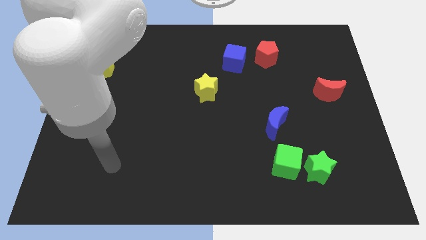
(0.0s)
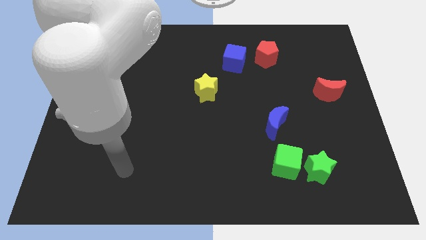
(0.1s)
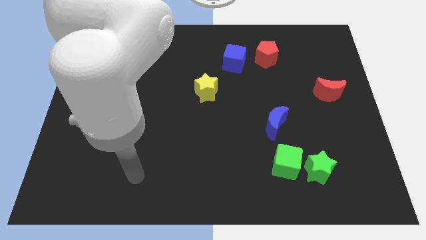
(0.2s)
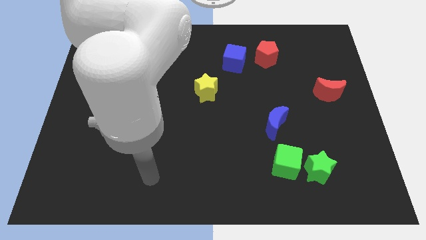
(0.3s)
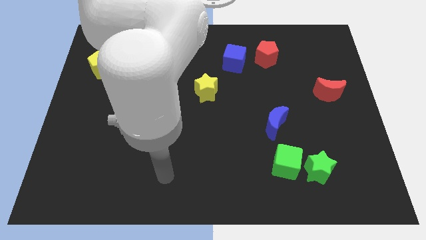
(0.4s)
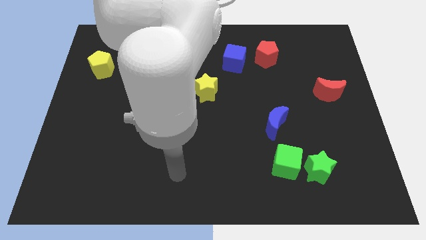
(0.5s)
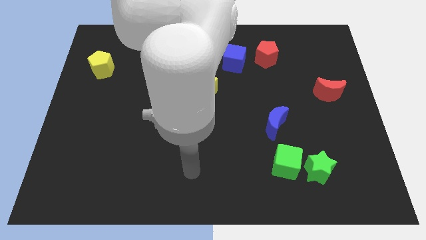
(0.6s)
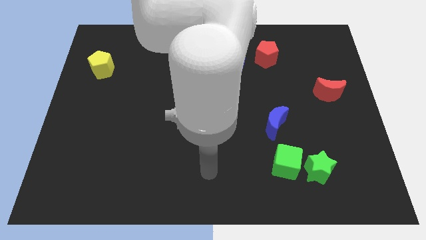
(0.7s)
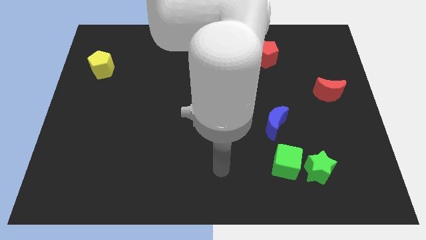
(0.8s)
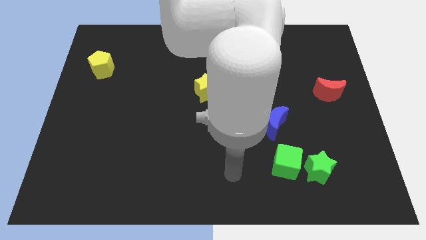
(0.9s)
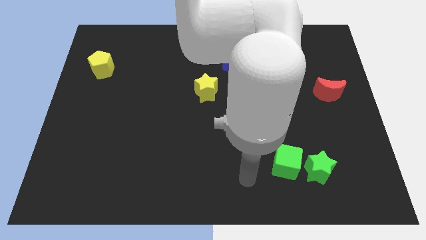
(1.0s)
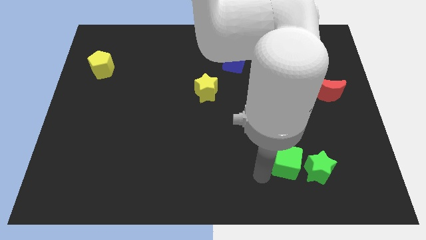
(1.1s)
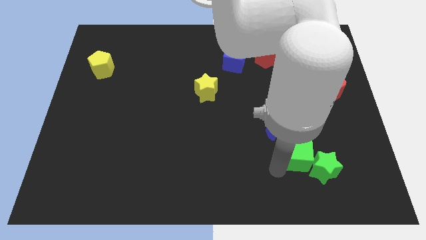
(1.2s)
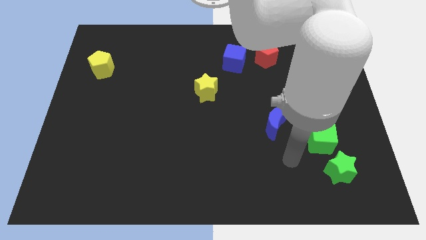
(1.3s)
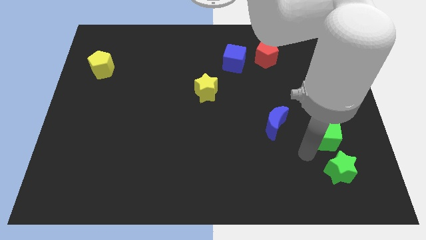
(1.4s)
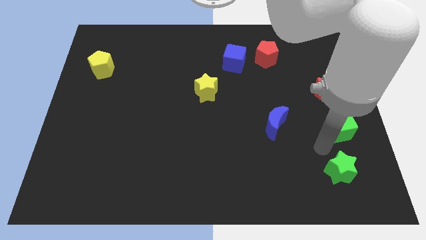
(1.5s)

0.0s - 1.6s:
separate the green star from the green cube

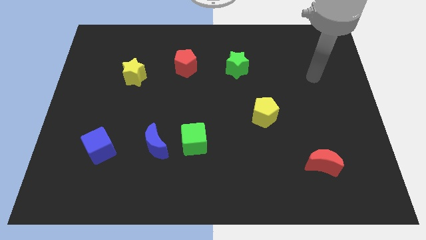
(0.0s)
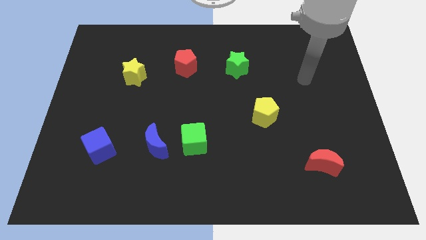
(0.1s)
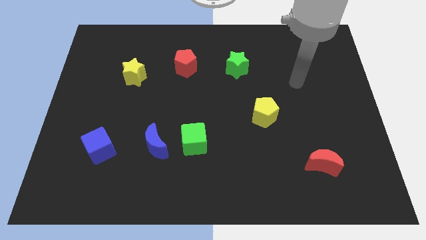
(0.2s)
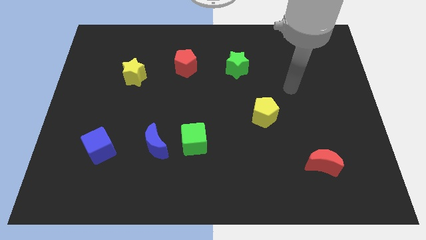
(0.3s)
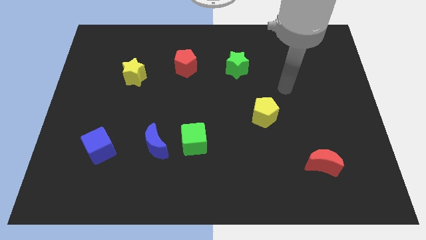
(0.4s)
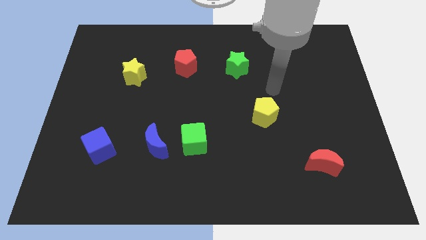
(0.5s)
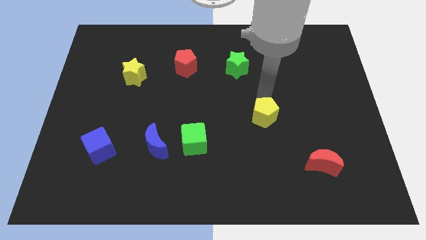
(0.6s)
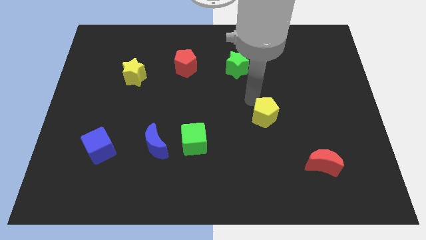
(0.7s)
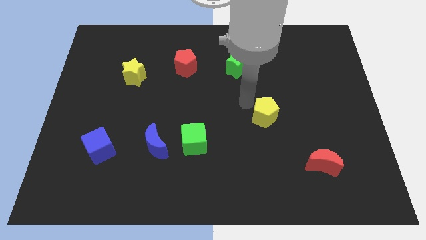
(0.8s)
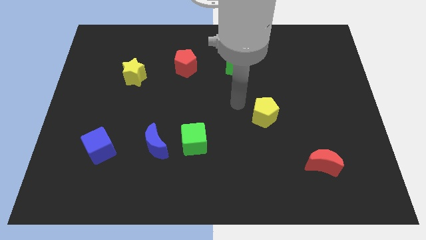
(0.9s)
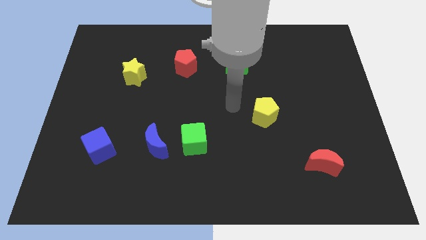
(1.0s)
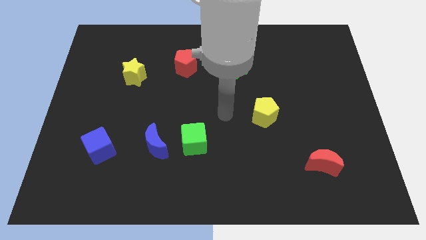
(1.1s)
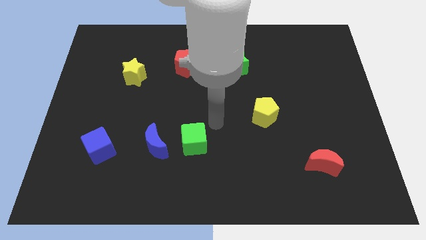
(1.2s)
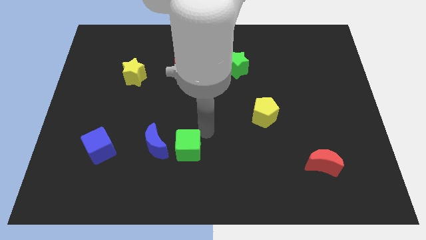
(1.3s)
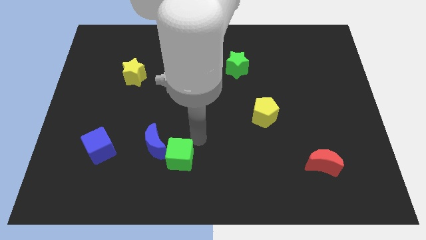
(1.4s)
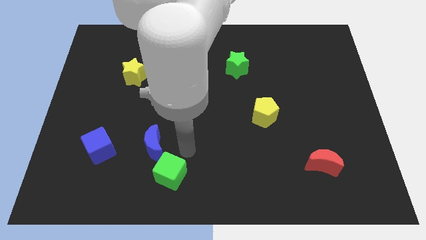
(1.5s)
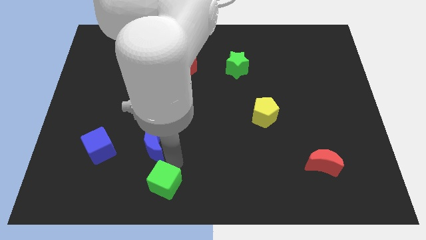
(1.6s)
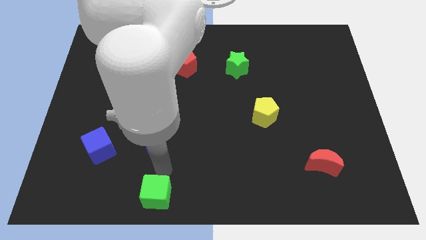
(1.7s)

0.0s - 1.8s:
pull the blue moon apart from the green cube

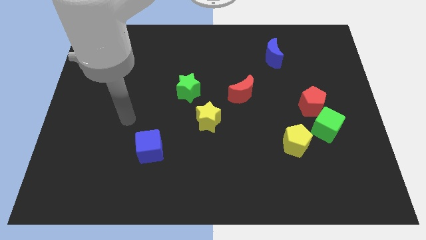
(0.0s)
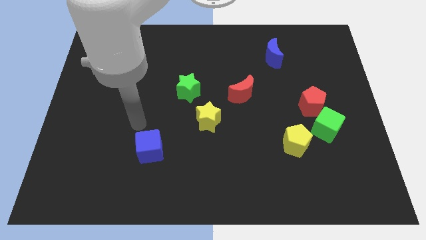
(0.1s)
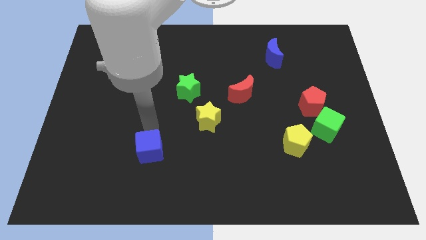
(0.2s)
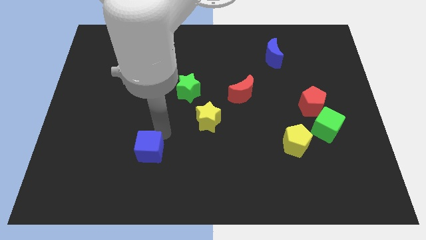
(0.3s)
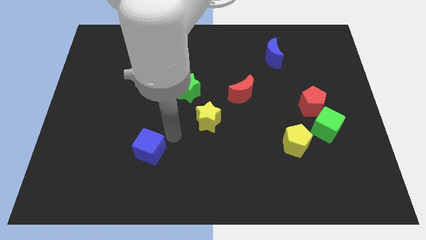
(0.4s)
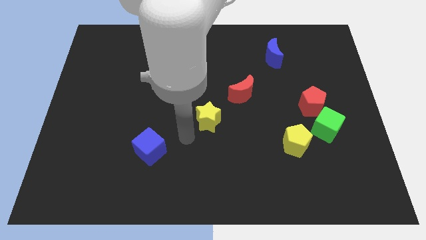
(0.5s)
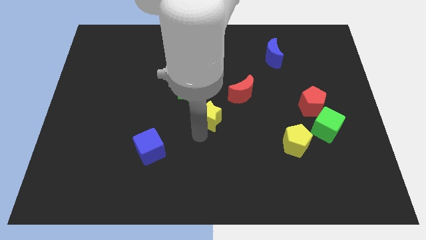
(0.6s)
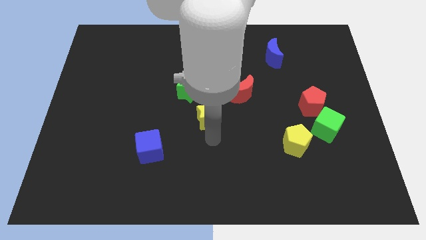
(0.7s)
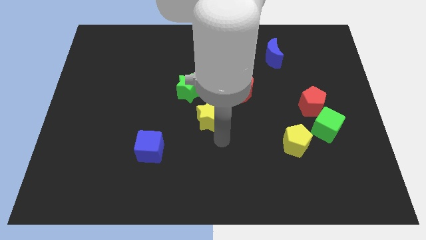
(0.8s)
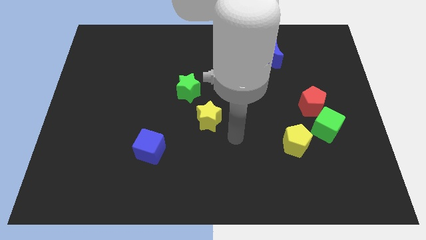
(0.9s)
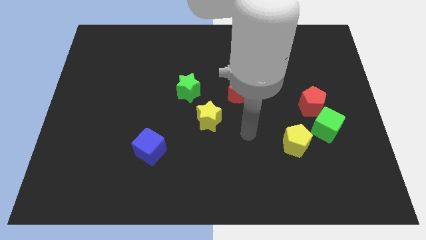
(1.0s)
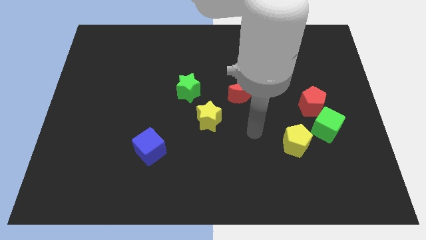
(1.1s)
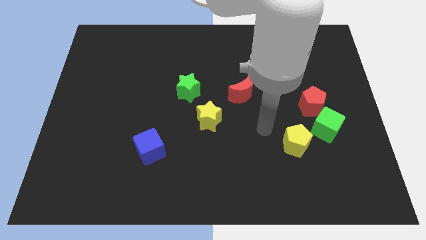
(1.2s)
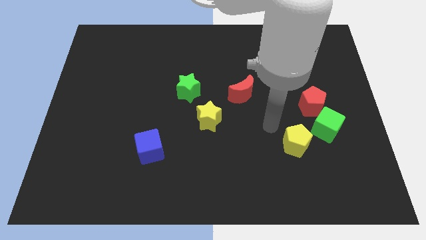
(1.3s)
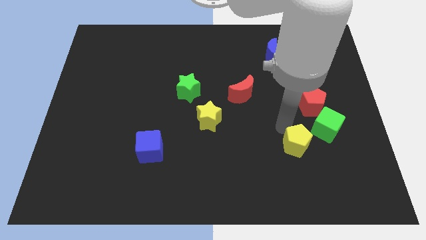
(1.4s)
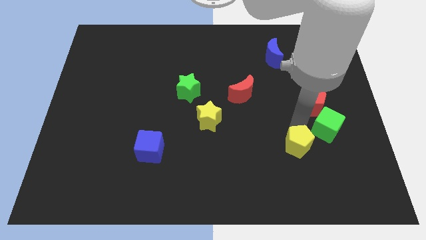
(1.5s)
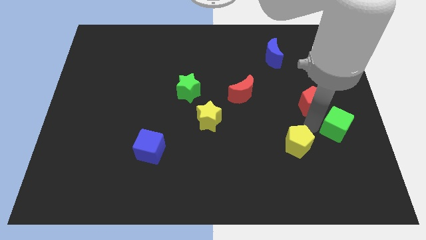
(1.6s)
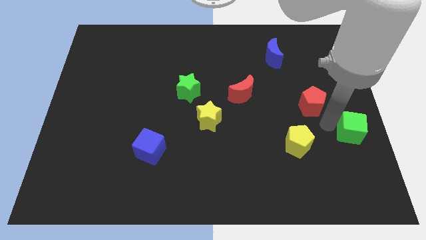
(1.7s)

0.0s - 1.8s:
separate the red pentagon from the green cube

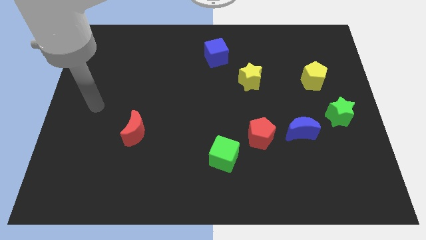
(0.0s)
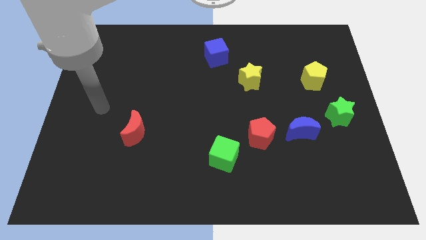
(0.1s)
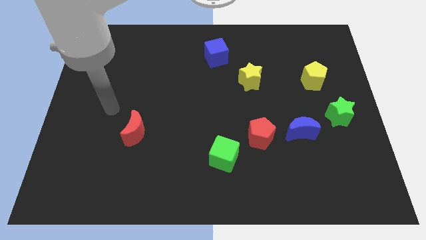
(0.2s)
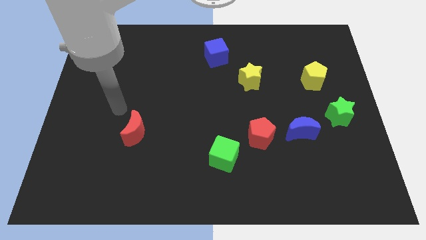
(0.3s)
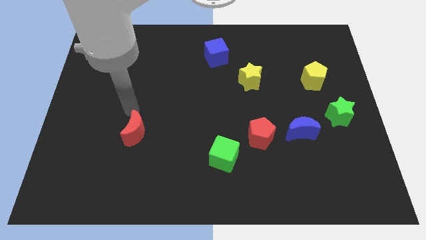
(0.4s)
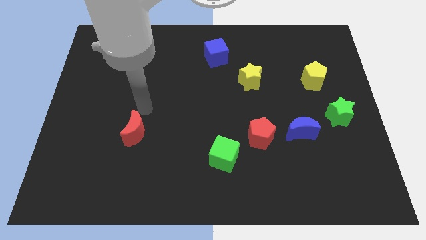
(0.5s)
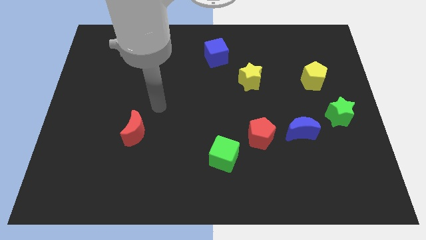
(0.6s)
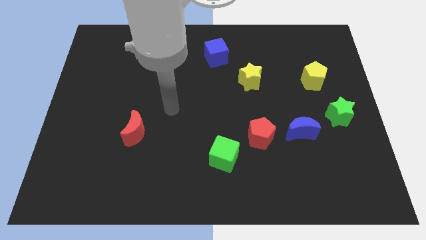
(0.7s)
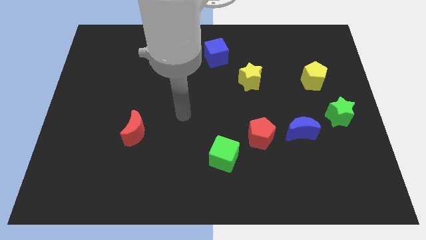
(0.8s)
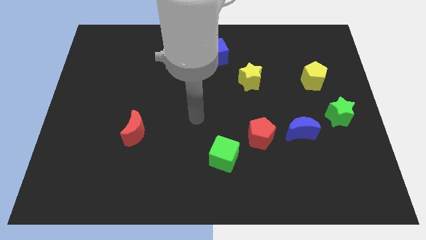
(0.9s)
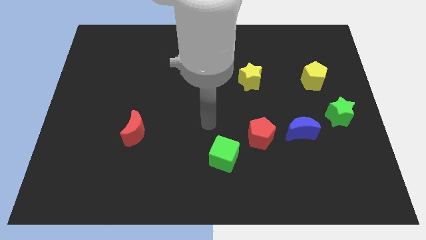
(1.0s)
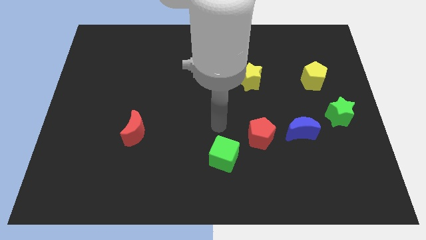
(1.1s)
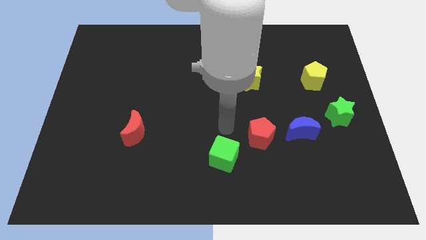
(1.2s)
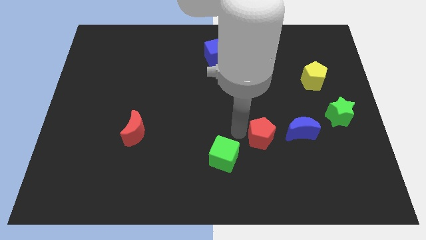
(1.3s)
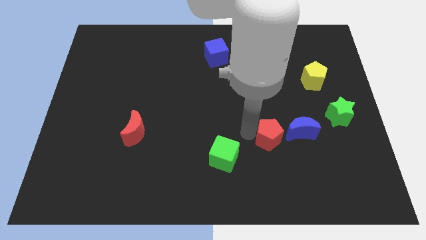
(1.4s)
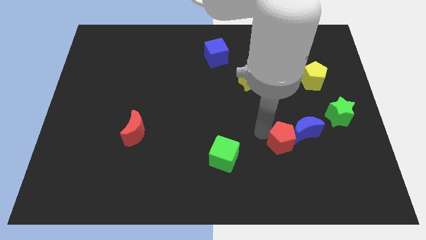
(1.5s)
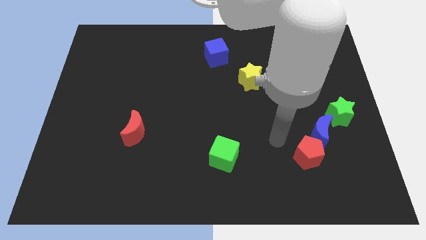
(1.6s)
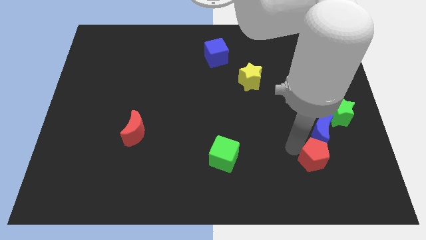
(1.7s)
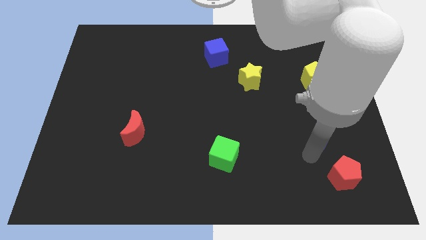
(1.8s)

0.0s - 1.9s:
move the blue moon away from the red pentagon

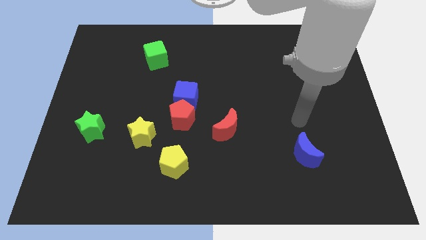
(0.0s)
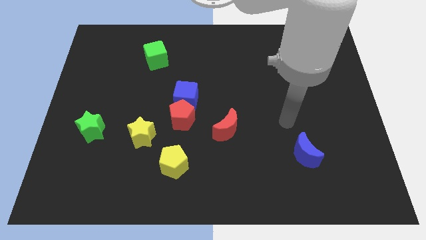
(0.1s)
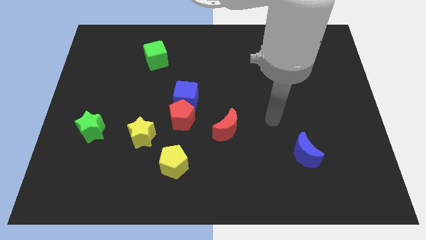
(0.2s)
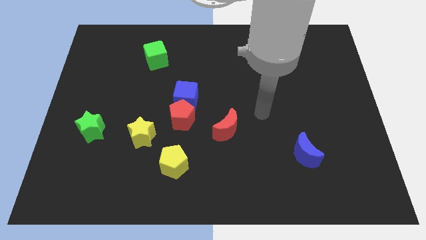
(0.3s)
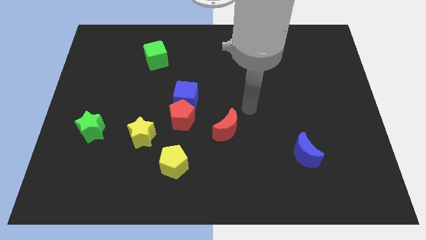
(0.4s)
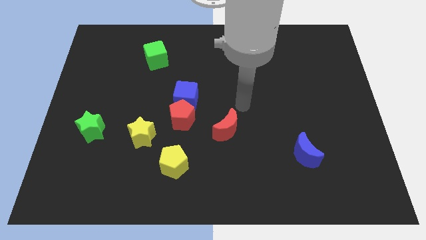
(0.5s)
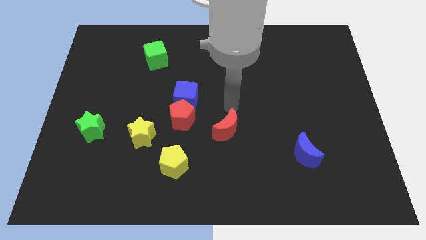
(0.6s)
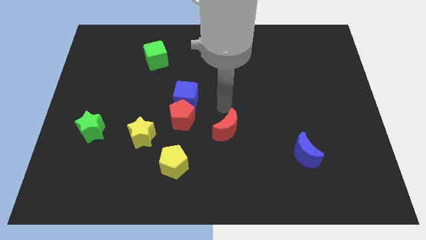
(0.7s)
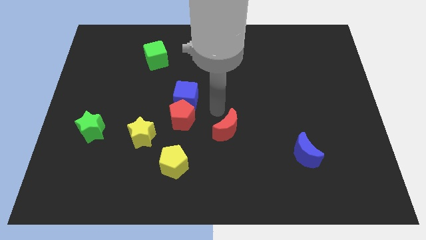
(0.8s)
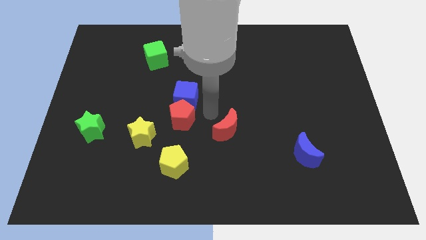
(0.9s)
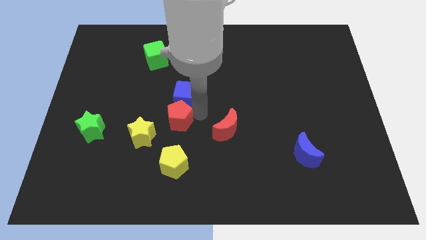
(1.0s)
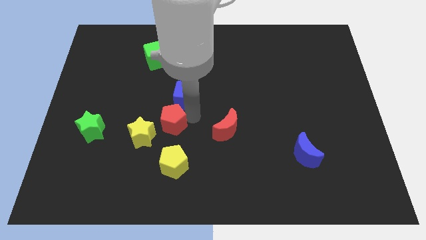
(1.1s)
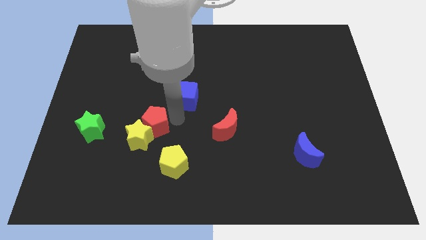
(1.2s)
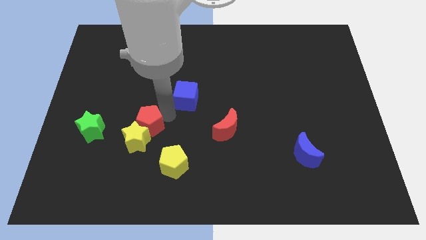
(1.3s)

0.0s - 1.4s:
separate the blue cube from the red pentagon

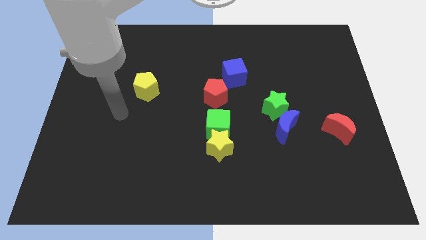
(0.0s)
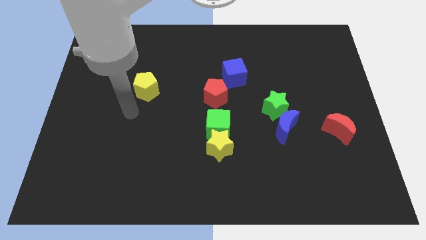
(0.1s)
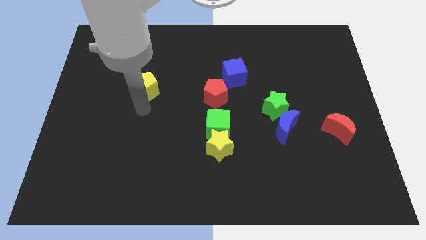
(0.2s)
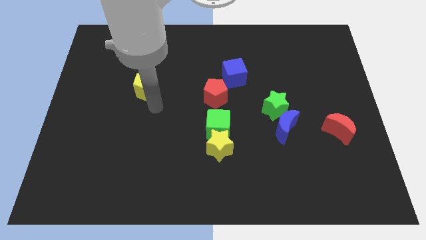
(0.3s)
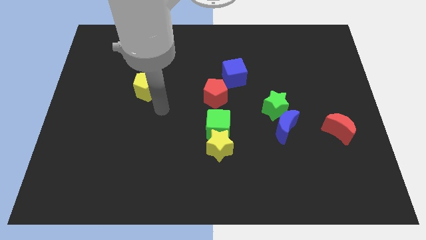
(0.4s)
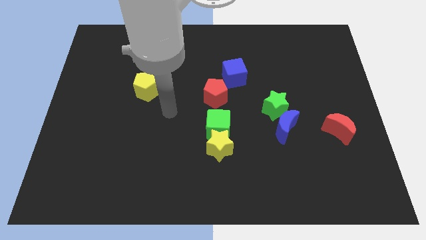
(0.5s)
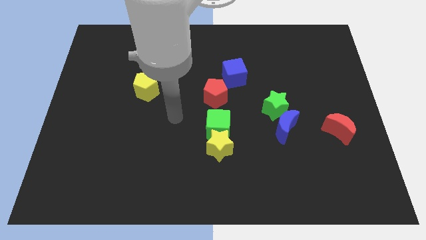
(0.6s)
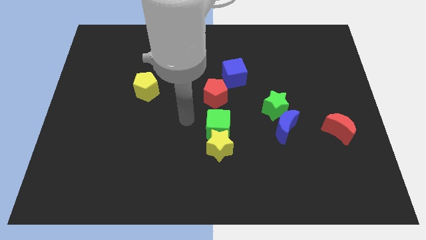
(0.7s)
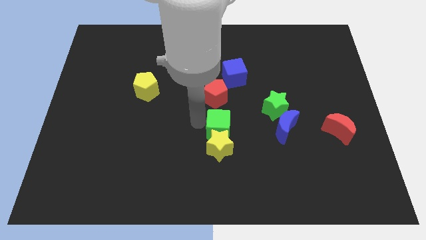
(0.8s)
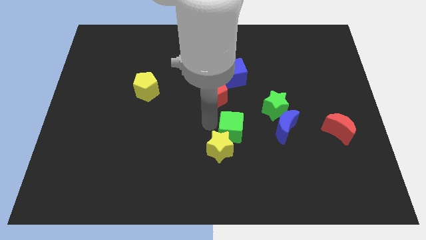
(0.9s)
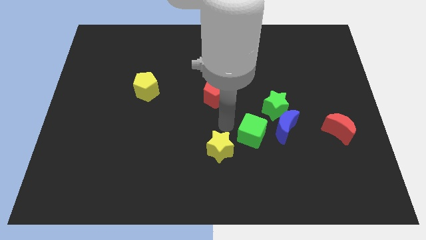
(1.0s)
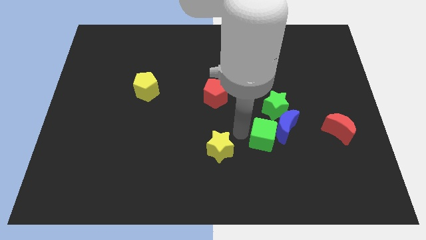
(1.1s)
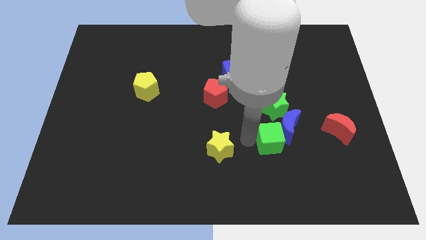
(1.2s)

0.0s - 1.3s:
pull the yellow star apart from the green cube
